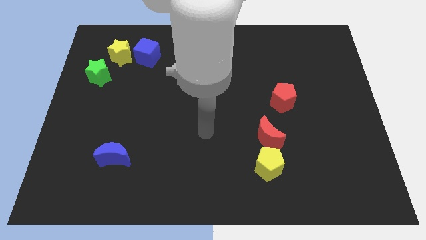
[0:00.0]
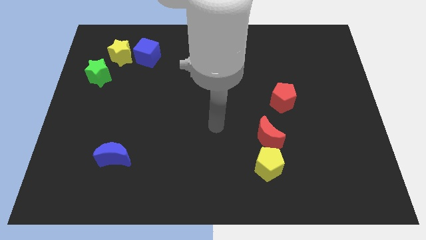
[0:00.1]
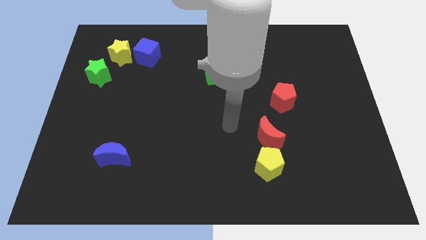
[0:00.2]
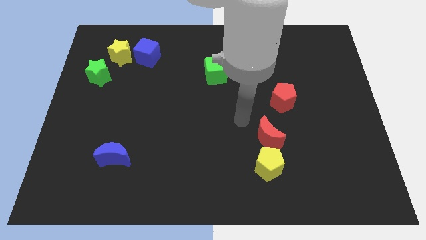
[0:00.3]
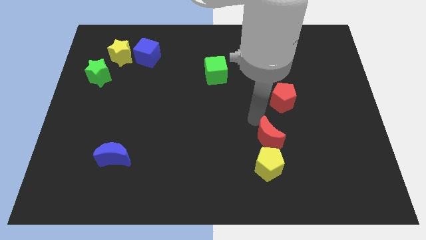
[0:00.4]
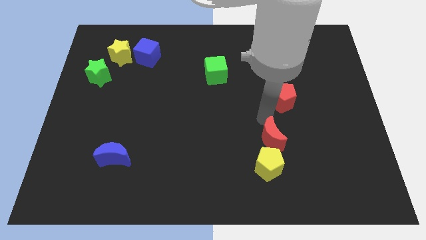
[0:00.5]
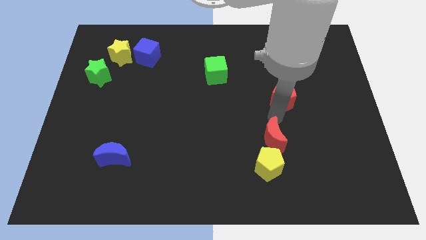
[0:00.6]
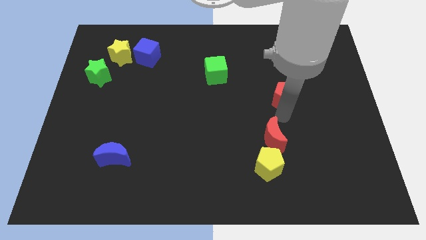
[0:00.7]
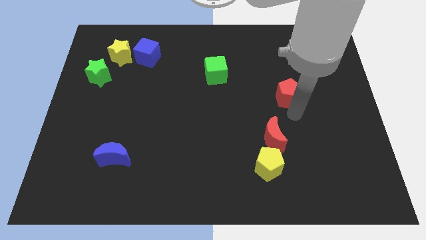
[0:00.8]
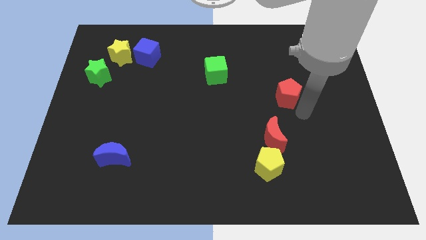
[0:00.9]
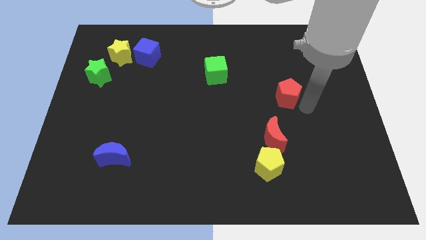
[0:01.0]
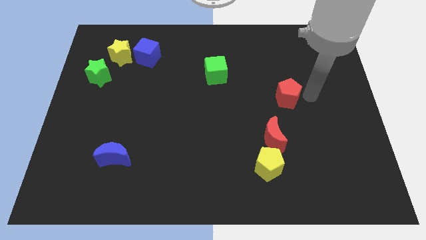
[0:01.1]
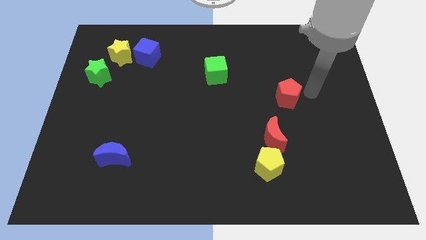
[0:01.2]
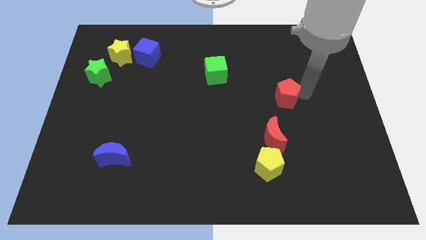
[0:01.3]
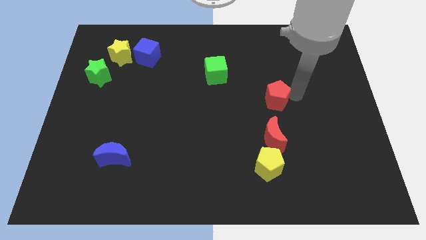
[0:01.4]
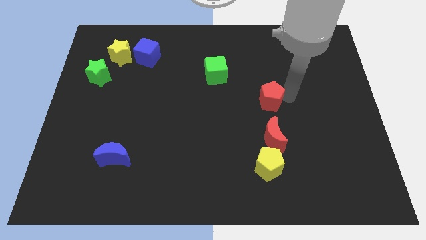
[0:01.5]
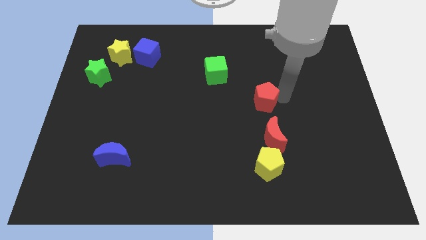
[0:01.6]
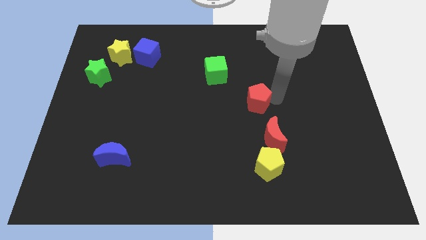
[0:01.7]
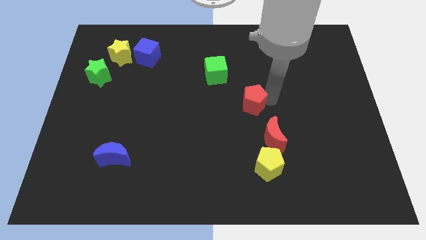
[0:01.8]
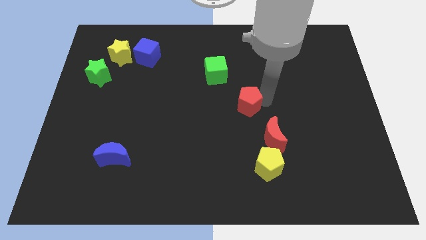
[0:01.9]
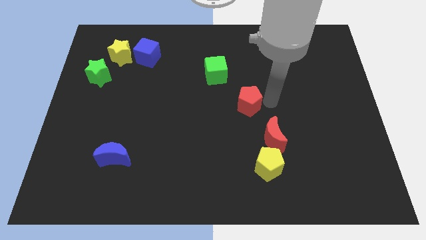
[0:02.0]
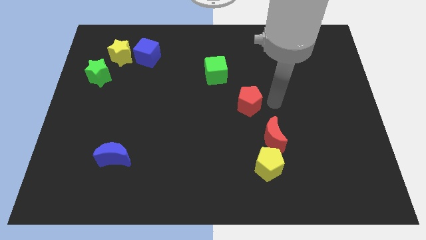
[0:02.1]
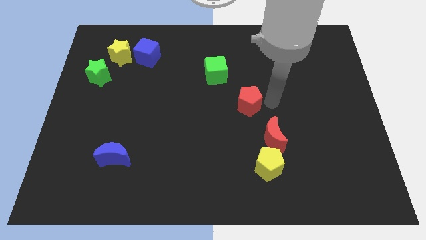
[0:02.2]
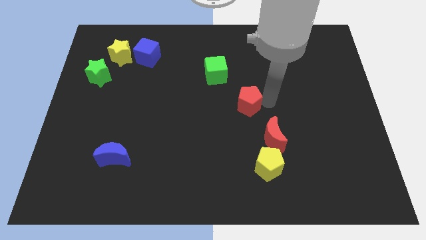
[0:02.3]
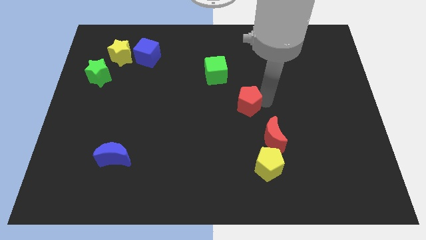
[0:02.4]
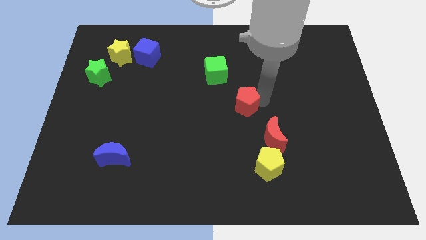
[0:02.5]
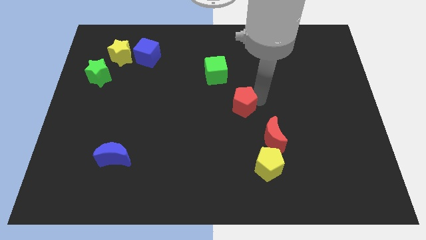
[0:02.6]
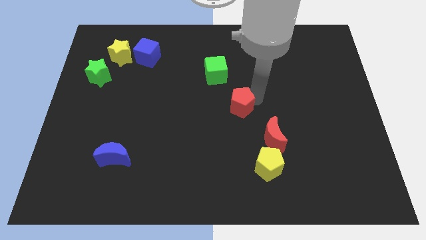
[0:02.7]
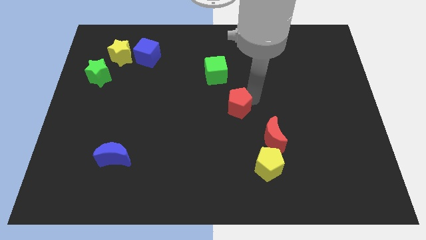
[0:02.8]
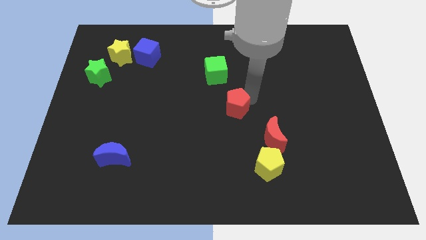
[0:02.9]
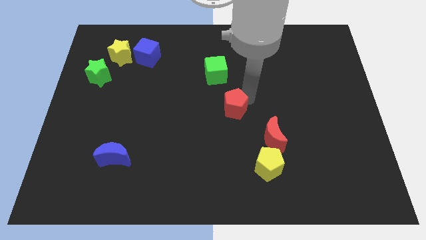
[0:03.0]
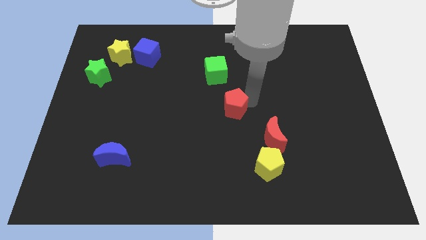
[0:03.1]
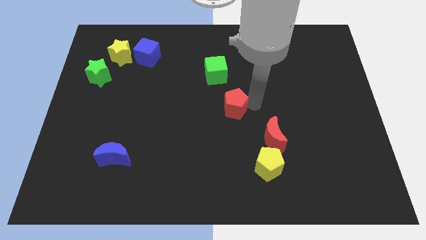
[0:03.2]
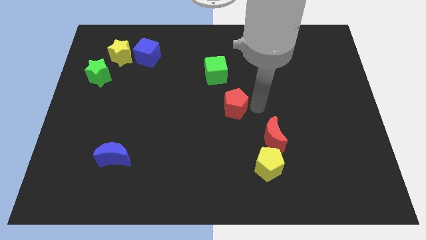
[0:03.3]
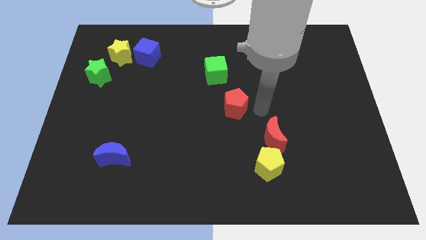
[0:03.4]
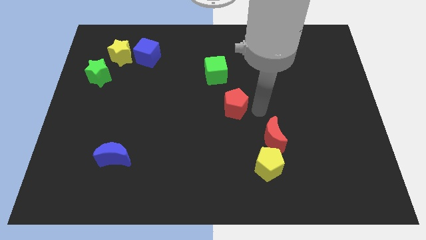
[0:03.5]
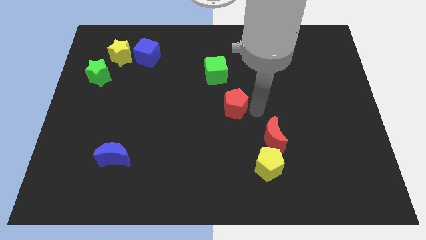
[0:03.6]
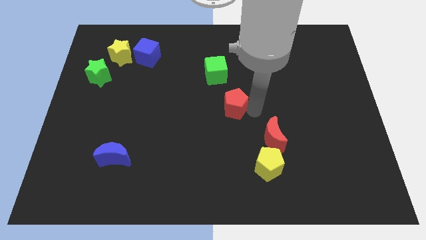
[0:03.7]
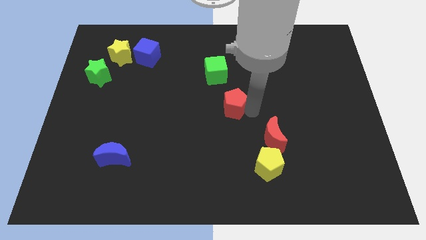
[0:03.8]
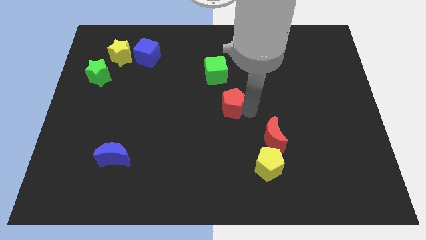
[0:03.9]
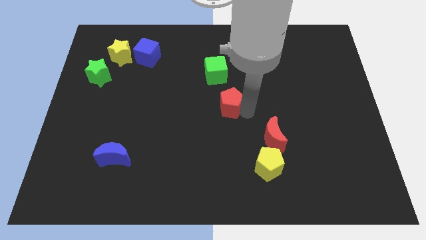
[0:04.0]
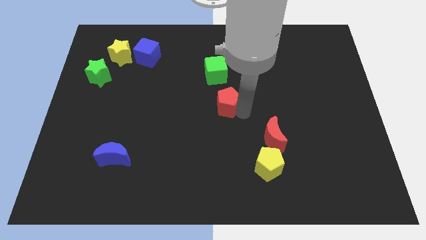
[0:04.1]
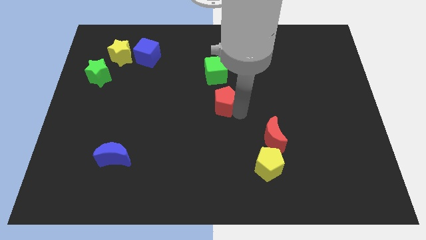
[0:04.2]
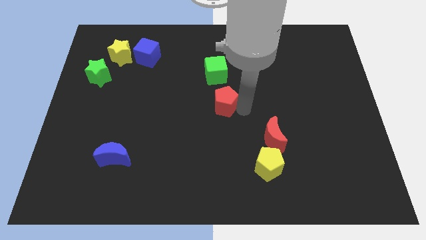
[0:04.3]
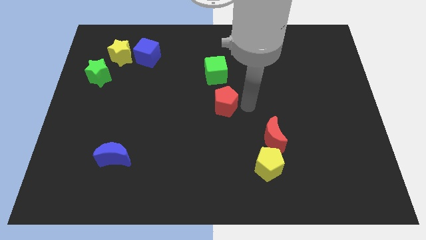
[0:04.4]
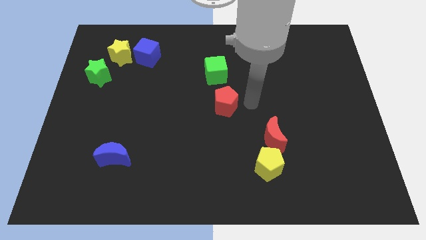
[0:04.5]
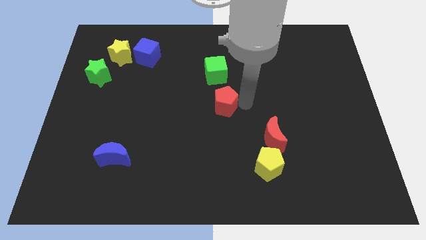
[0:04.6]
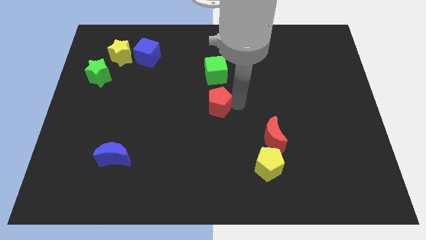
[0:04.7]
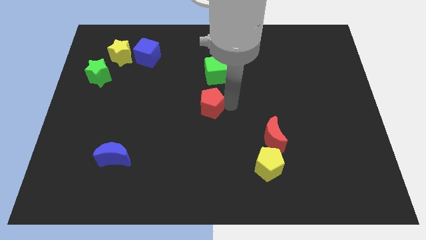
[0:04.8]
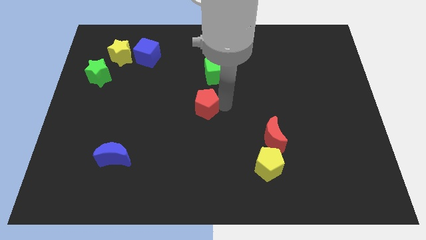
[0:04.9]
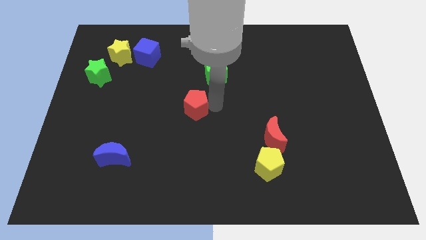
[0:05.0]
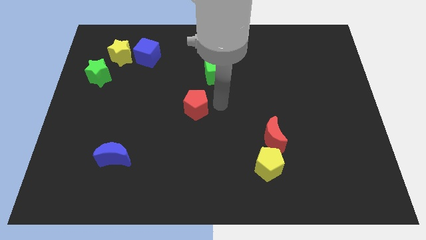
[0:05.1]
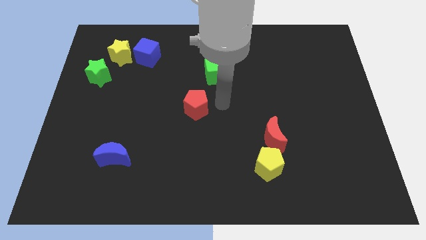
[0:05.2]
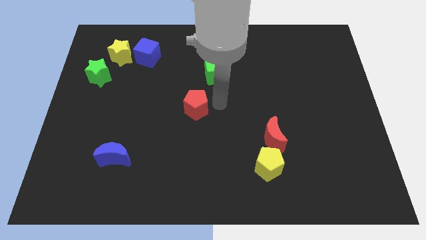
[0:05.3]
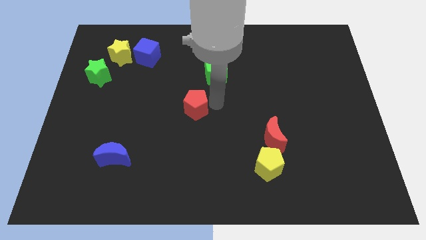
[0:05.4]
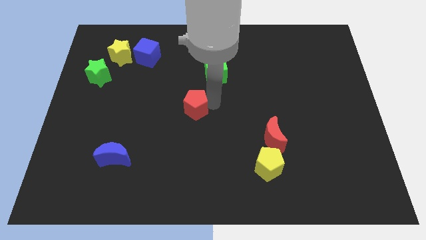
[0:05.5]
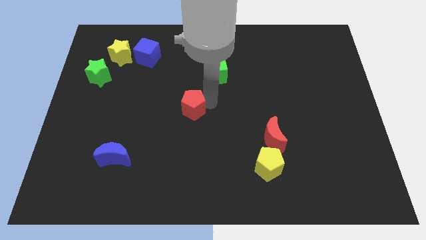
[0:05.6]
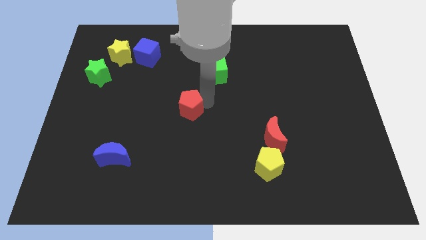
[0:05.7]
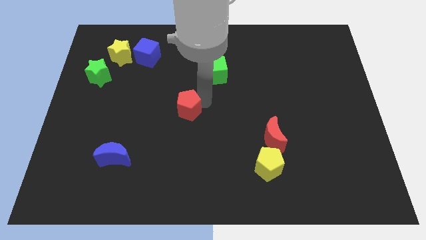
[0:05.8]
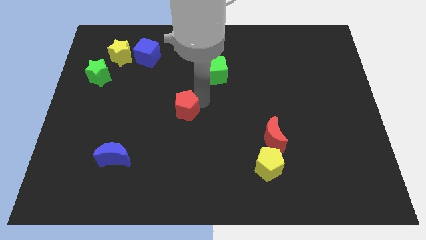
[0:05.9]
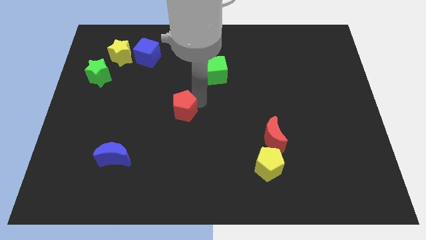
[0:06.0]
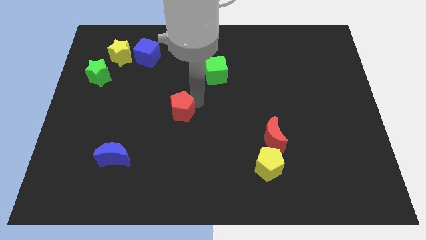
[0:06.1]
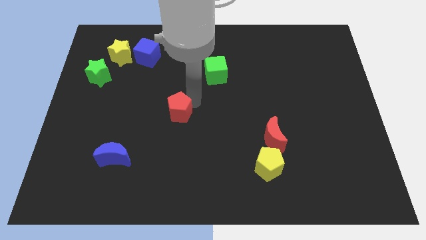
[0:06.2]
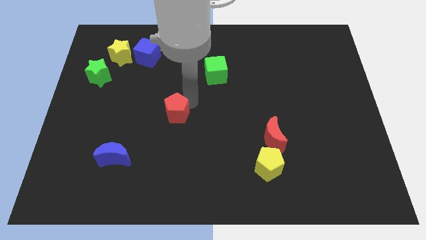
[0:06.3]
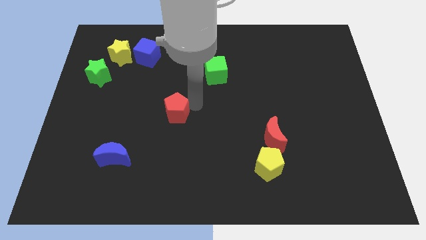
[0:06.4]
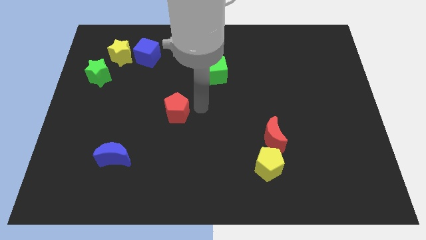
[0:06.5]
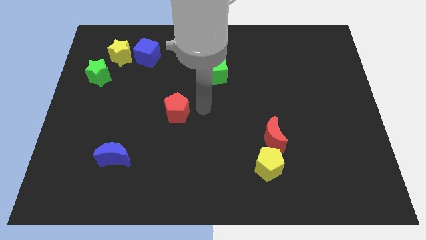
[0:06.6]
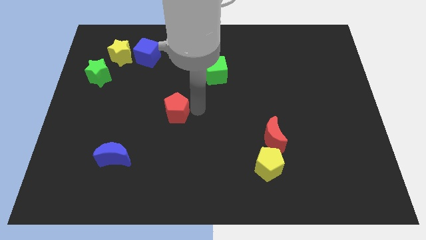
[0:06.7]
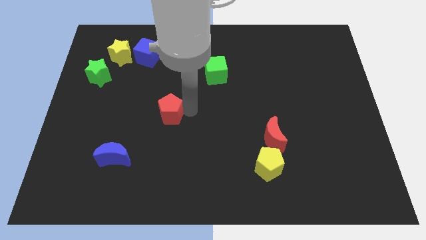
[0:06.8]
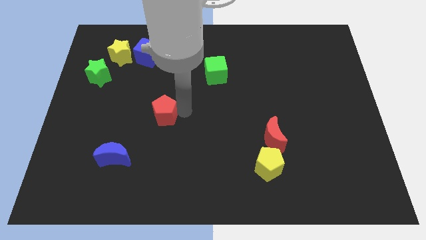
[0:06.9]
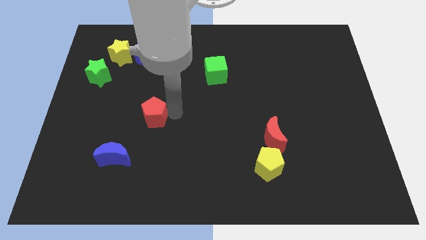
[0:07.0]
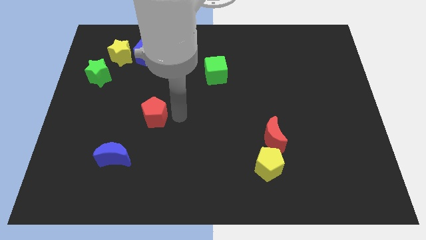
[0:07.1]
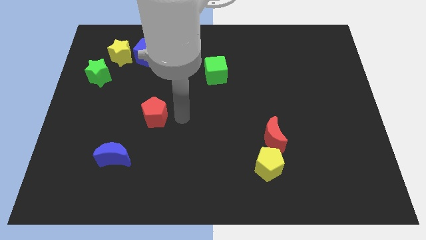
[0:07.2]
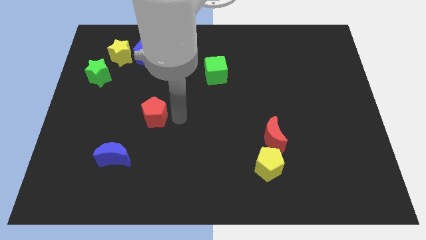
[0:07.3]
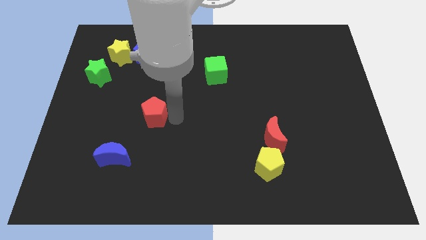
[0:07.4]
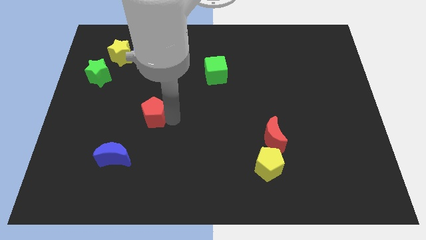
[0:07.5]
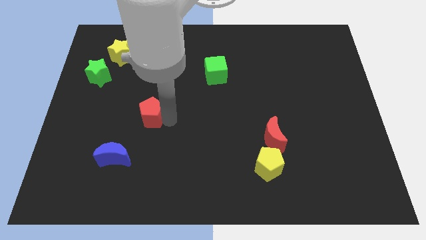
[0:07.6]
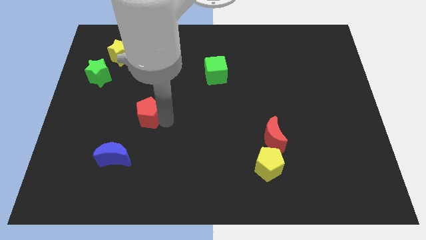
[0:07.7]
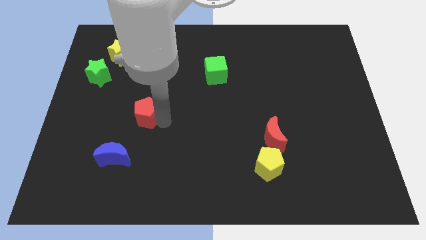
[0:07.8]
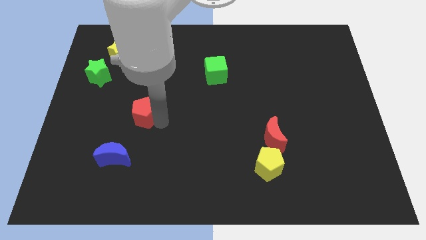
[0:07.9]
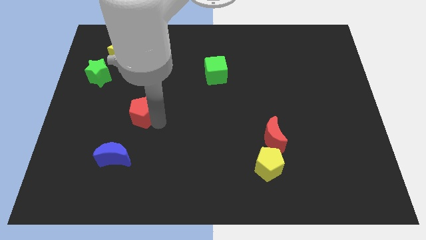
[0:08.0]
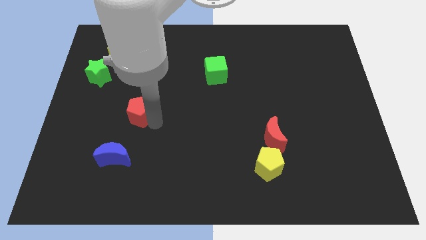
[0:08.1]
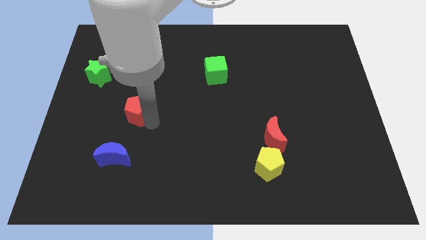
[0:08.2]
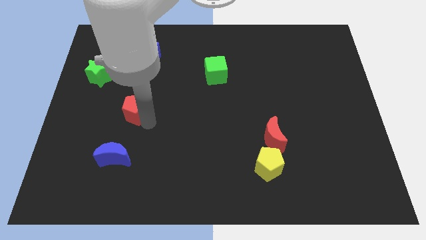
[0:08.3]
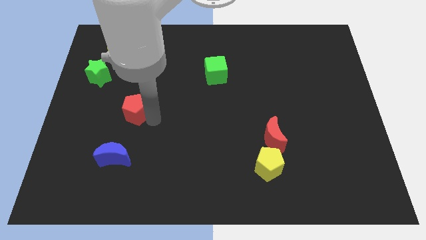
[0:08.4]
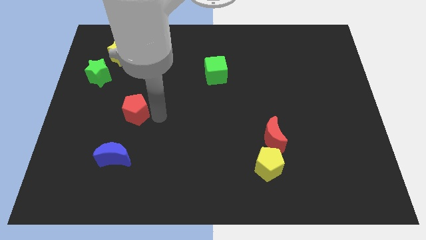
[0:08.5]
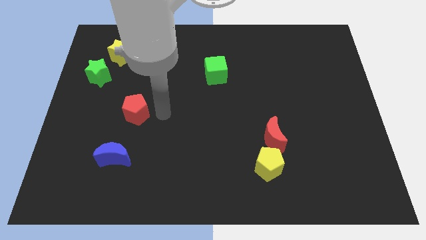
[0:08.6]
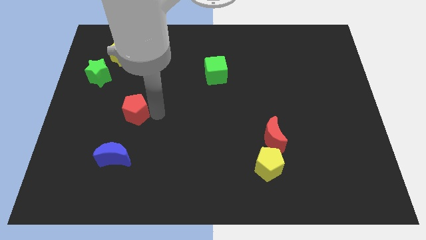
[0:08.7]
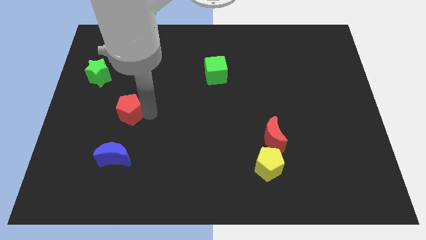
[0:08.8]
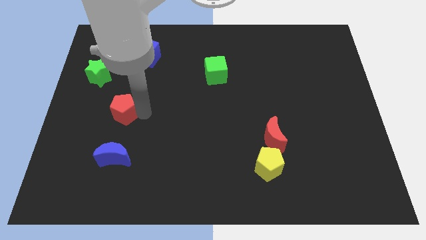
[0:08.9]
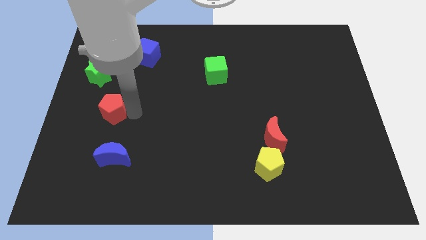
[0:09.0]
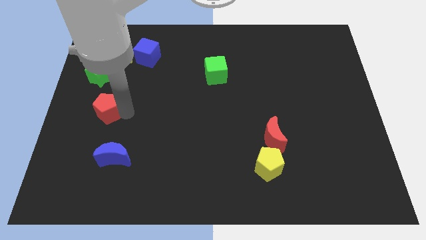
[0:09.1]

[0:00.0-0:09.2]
slide the red pentagon to the bottom of the green star
